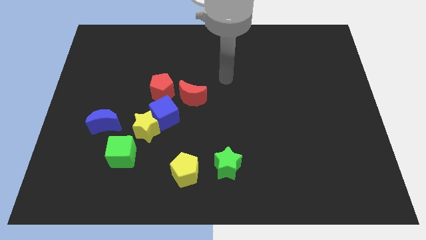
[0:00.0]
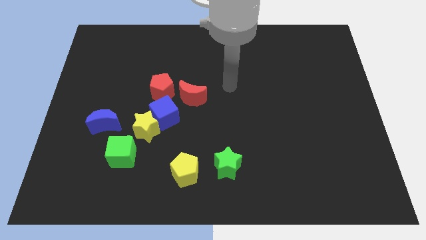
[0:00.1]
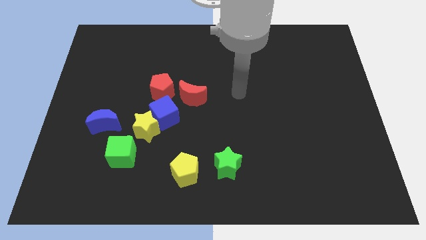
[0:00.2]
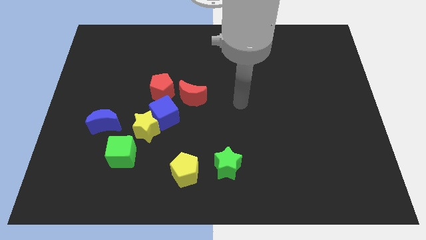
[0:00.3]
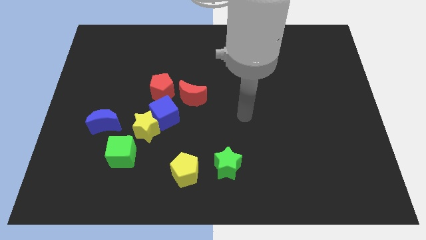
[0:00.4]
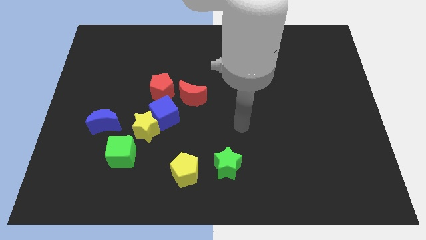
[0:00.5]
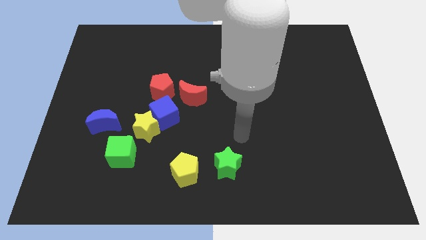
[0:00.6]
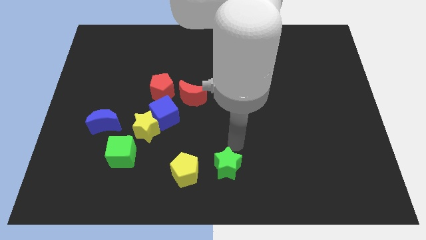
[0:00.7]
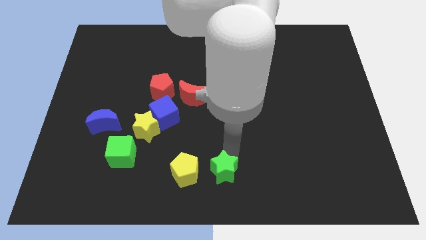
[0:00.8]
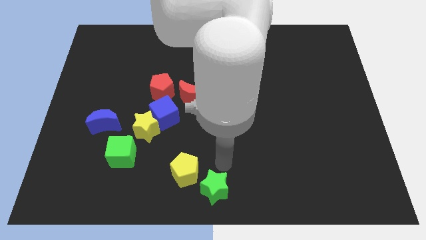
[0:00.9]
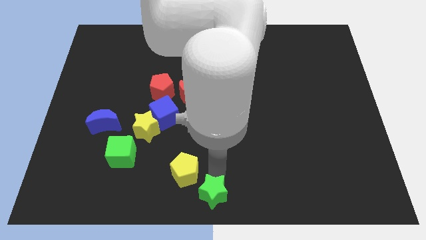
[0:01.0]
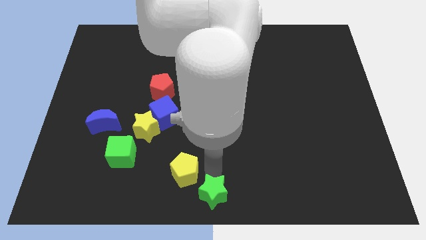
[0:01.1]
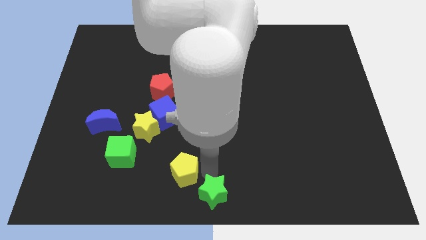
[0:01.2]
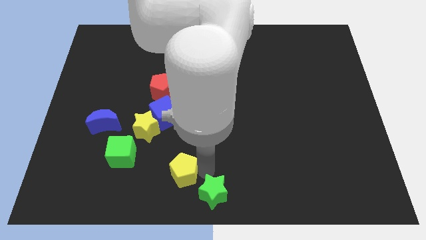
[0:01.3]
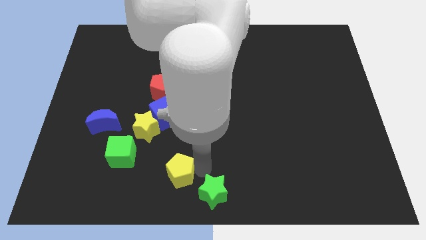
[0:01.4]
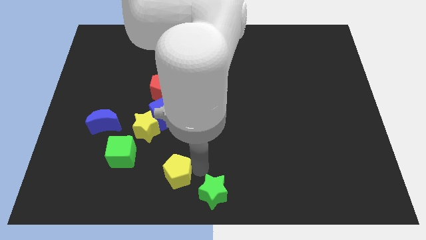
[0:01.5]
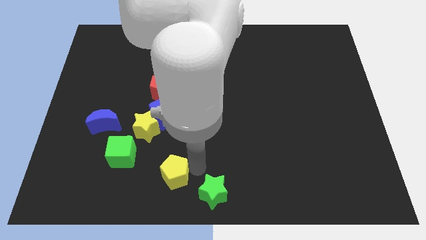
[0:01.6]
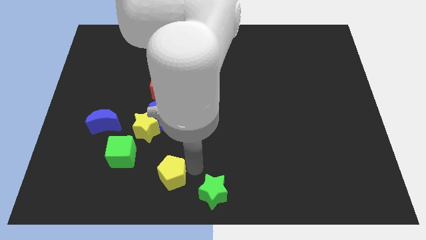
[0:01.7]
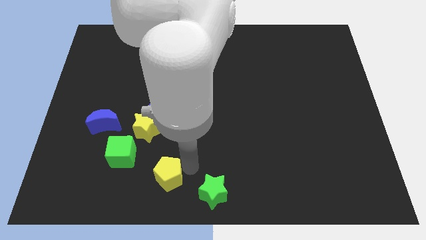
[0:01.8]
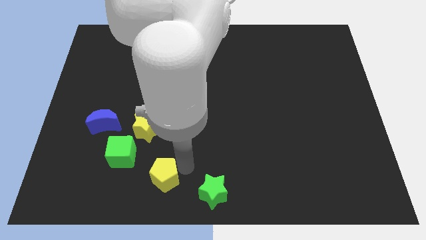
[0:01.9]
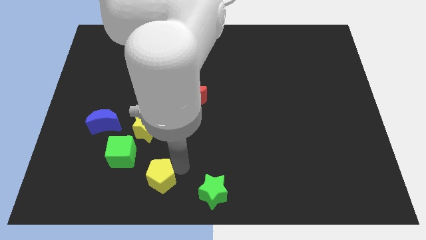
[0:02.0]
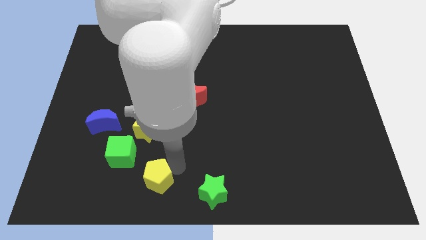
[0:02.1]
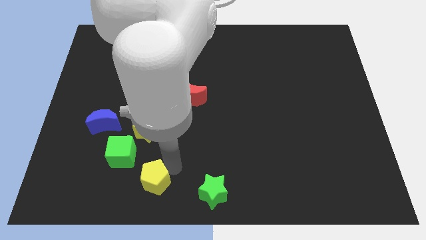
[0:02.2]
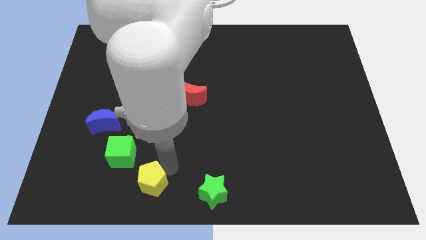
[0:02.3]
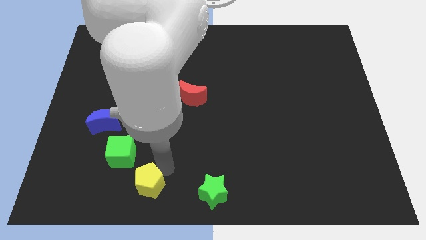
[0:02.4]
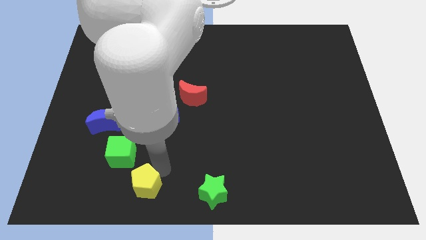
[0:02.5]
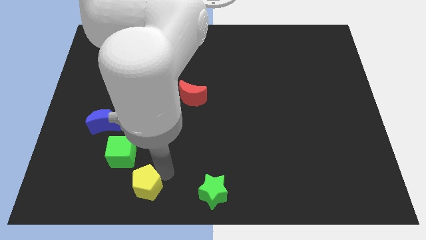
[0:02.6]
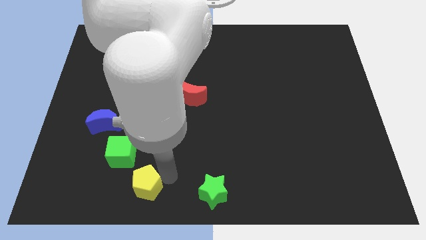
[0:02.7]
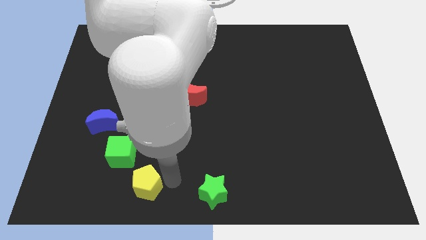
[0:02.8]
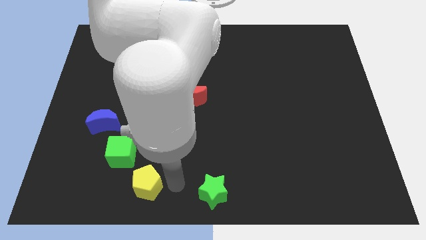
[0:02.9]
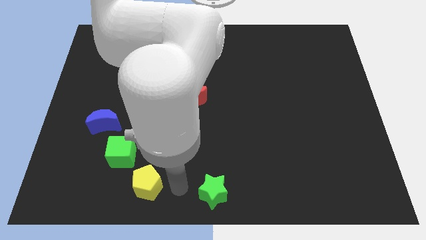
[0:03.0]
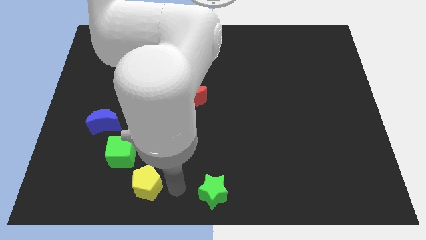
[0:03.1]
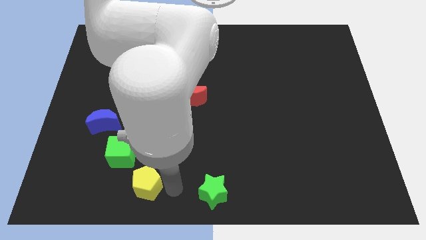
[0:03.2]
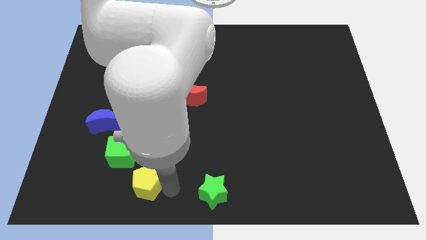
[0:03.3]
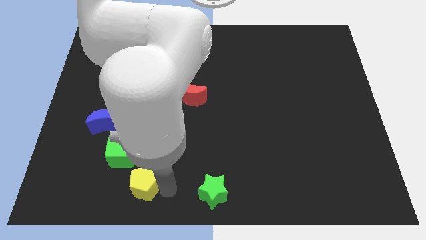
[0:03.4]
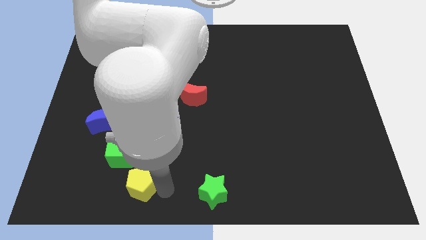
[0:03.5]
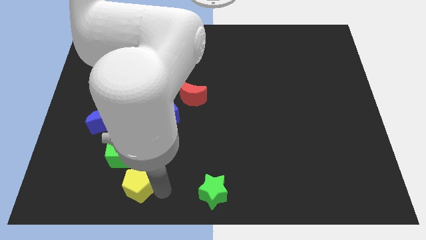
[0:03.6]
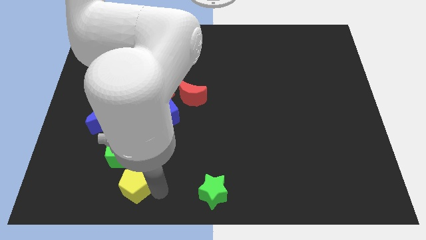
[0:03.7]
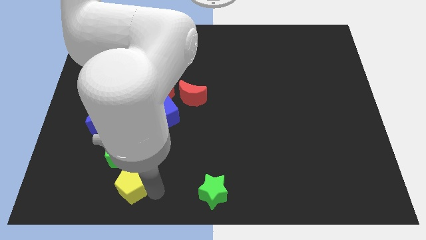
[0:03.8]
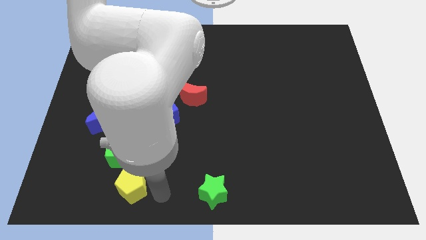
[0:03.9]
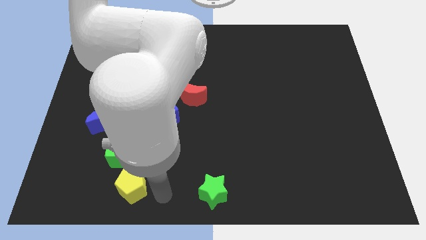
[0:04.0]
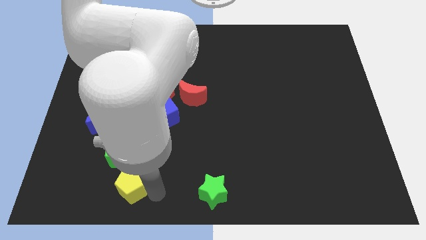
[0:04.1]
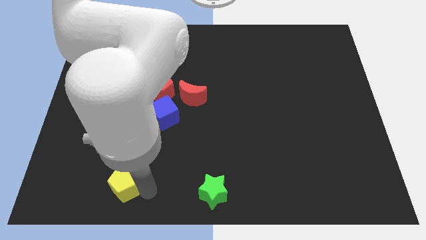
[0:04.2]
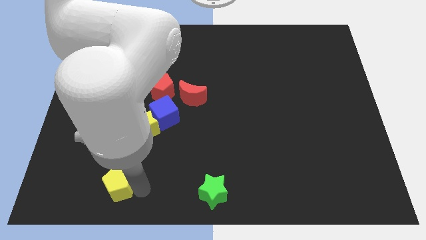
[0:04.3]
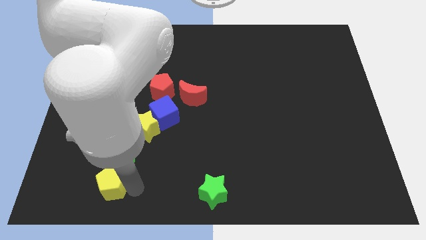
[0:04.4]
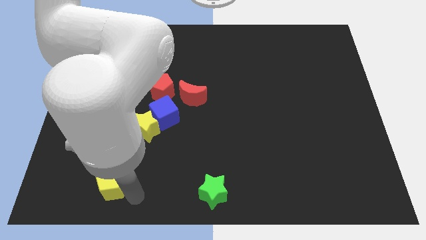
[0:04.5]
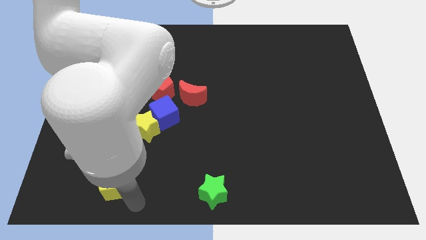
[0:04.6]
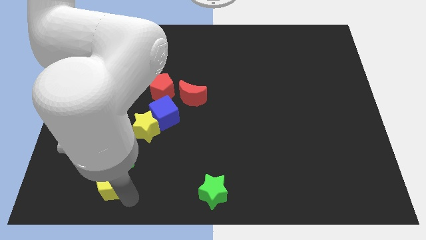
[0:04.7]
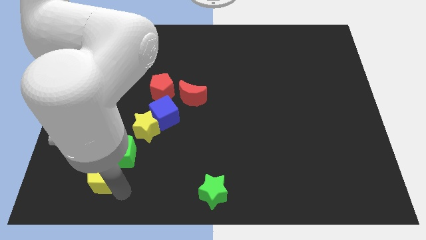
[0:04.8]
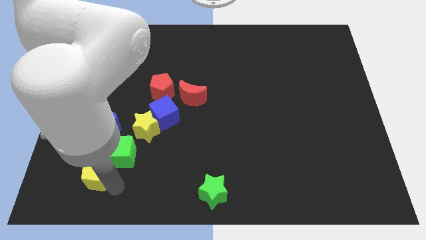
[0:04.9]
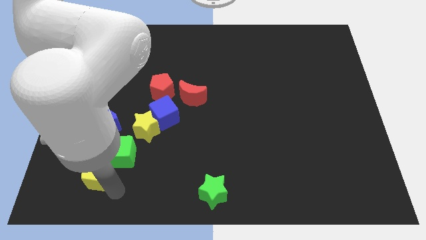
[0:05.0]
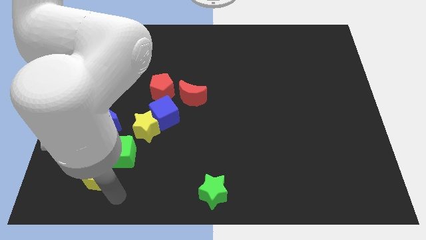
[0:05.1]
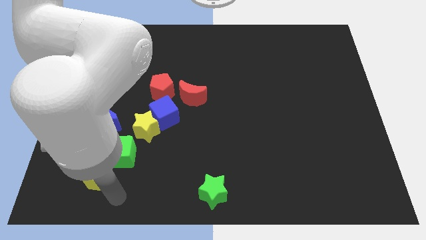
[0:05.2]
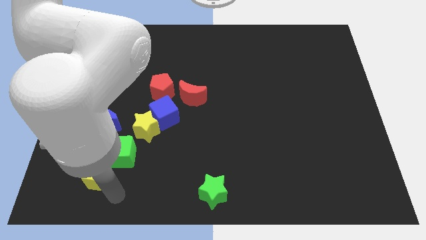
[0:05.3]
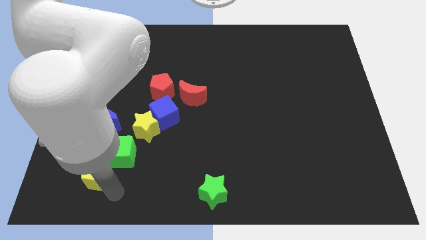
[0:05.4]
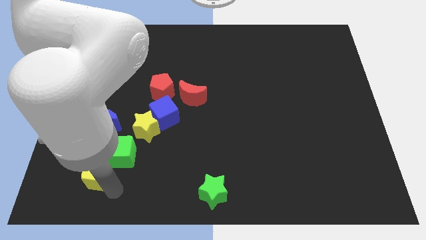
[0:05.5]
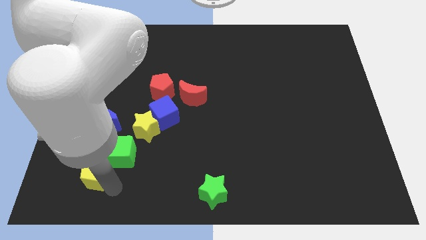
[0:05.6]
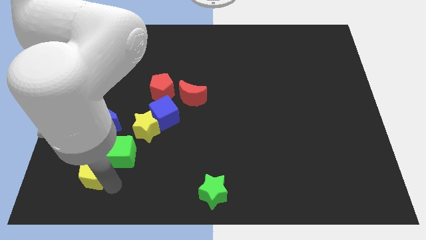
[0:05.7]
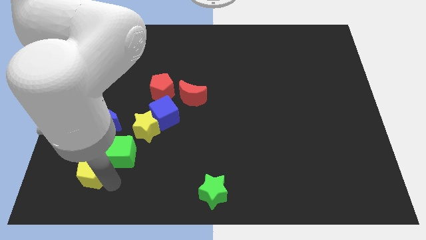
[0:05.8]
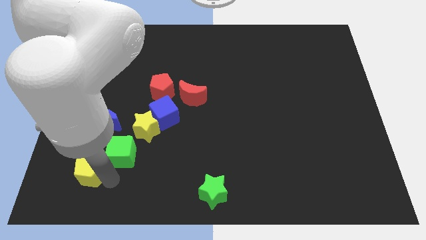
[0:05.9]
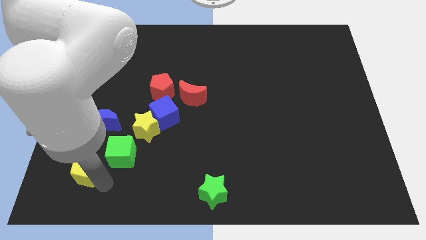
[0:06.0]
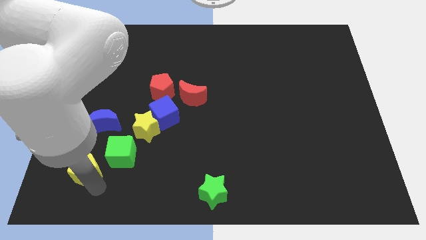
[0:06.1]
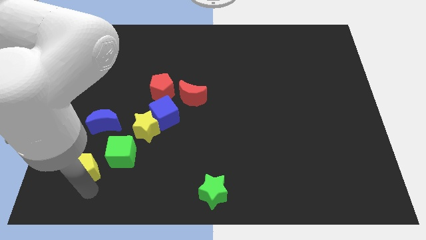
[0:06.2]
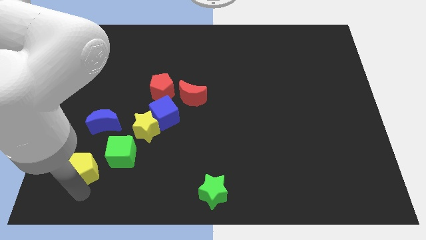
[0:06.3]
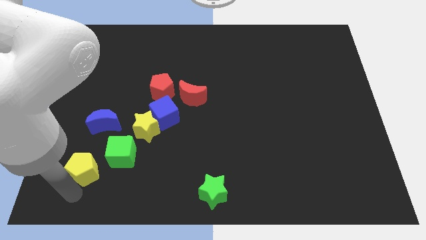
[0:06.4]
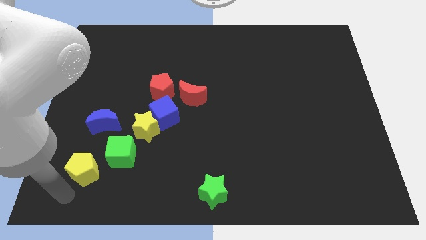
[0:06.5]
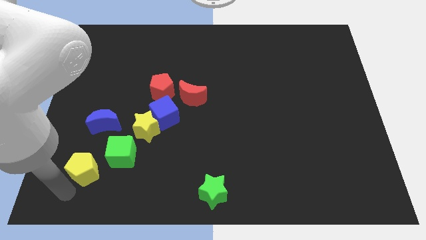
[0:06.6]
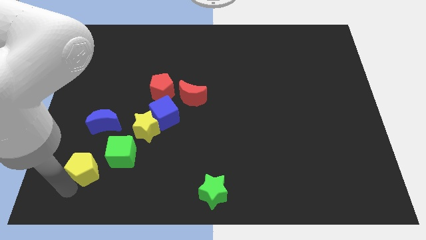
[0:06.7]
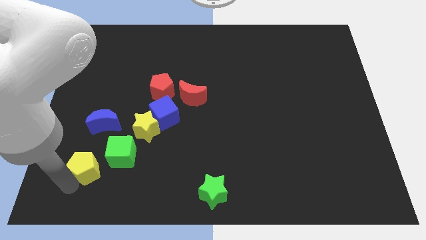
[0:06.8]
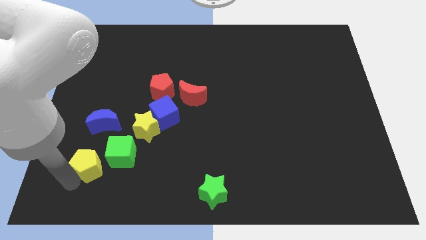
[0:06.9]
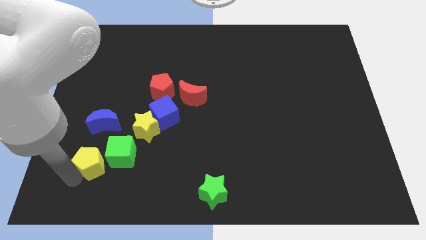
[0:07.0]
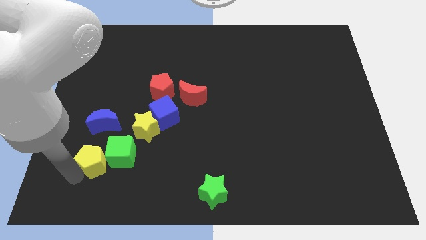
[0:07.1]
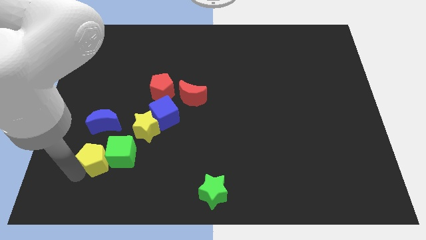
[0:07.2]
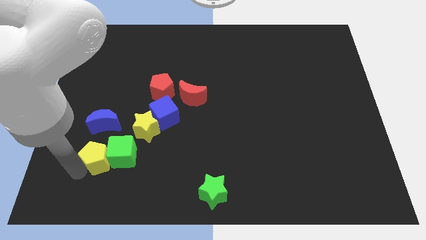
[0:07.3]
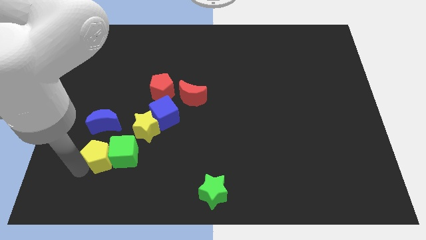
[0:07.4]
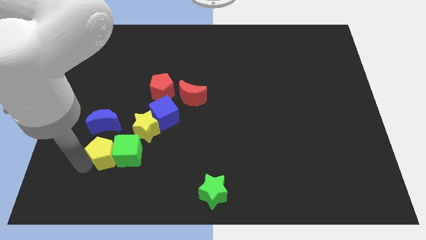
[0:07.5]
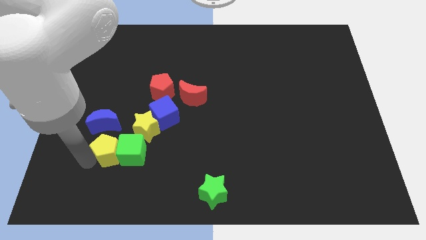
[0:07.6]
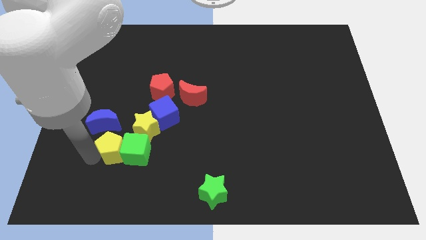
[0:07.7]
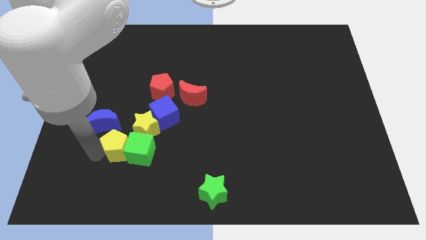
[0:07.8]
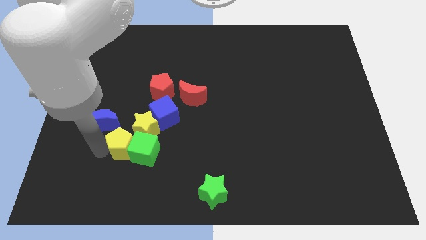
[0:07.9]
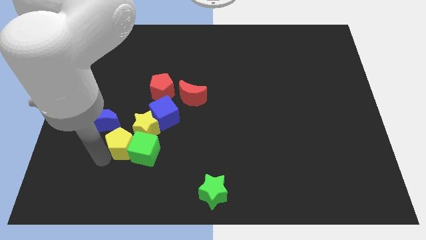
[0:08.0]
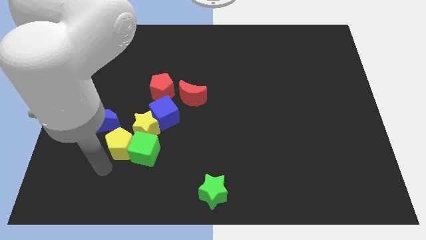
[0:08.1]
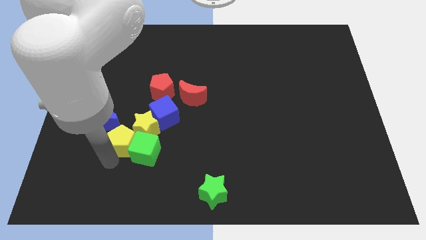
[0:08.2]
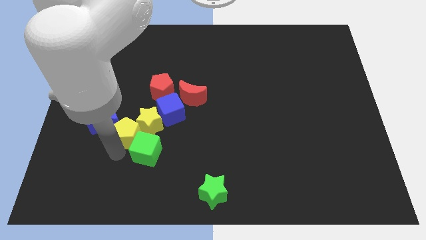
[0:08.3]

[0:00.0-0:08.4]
slide the yellow pentagon to the top of the green cube
